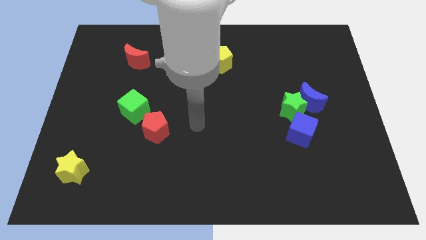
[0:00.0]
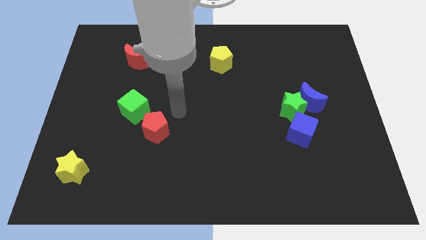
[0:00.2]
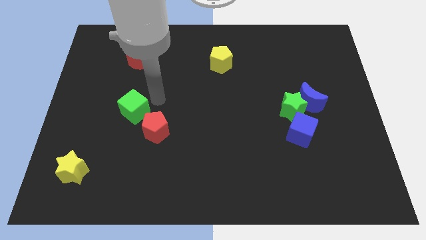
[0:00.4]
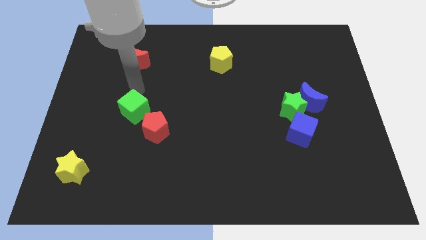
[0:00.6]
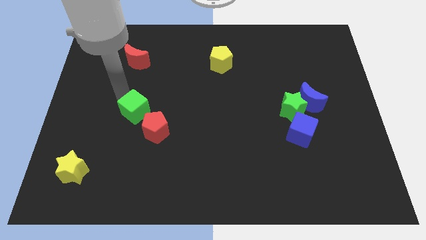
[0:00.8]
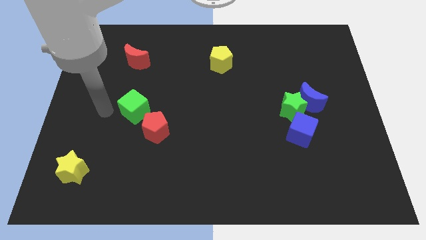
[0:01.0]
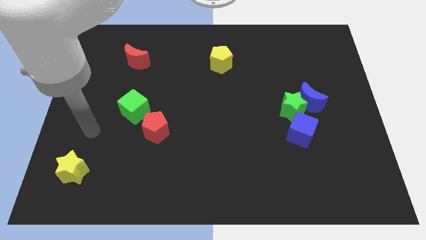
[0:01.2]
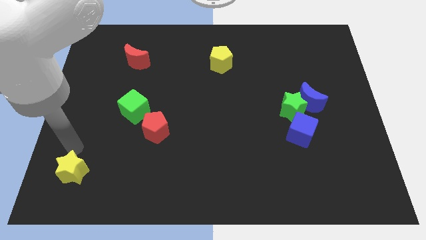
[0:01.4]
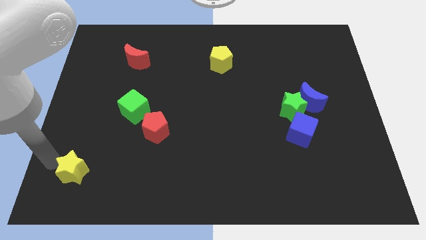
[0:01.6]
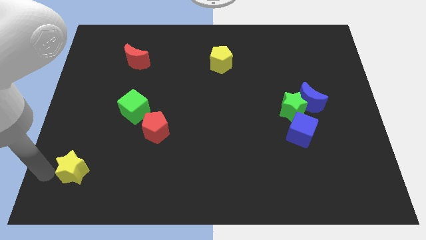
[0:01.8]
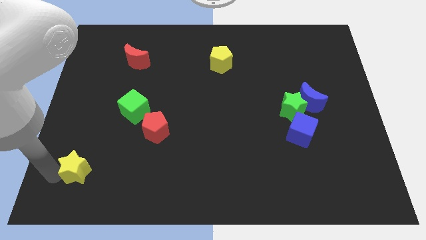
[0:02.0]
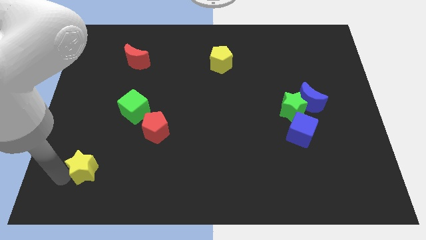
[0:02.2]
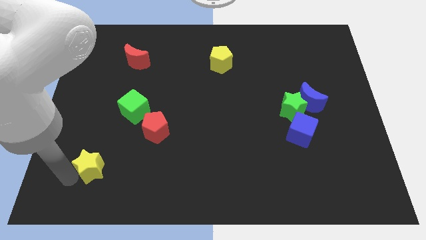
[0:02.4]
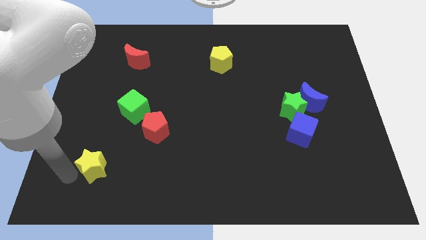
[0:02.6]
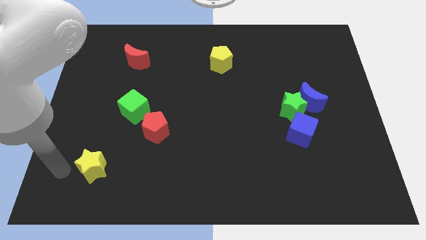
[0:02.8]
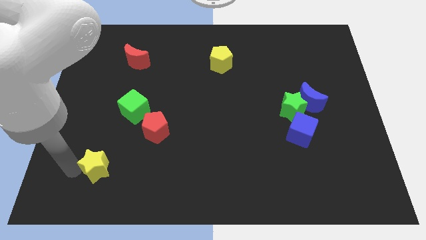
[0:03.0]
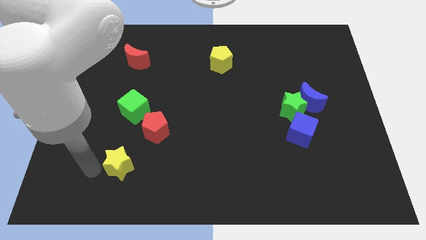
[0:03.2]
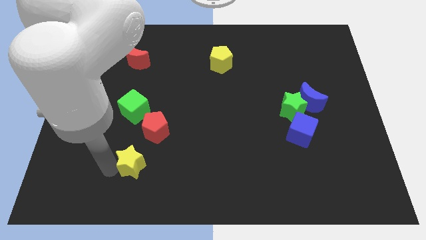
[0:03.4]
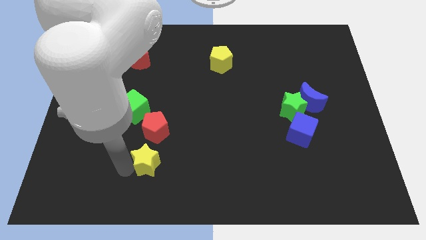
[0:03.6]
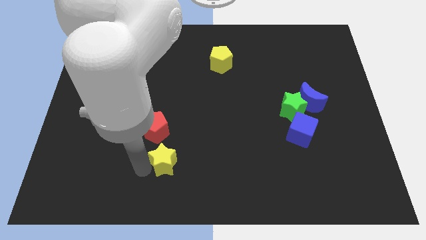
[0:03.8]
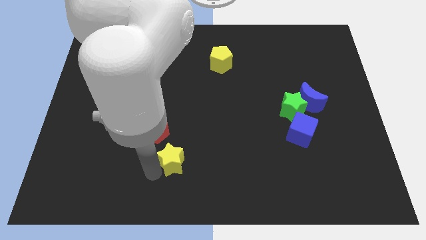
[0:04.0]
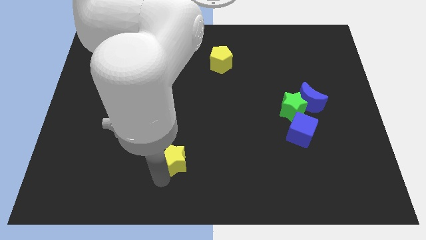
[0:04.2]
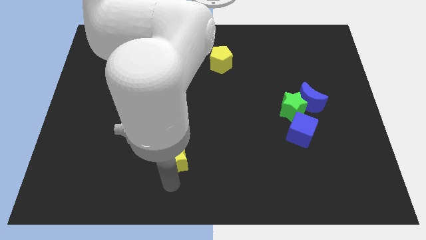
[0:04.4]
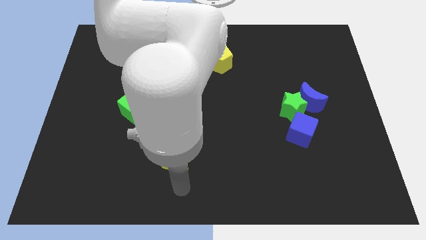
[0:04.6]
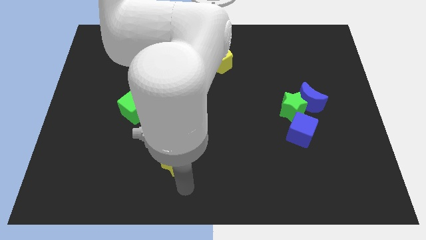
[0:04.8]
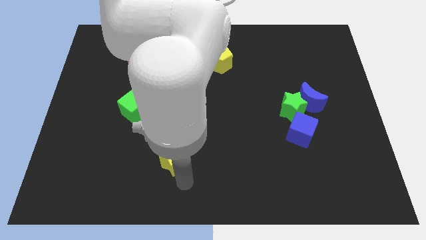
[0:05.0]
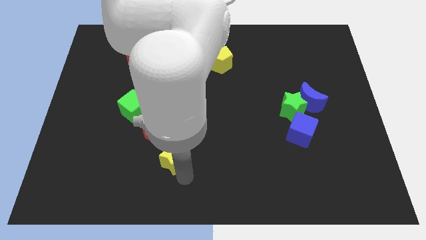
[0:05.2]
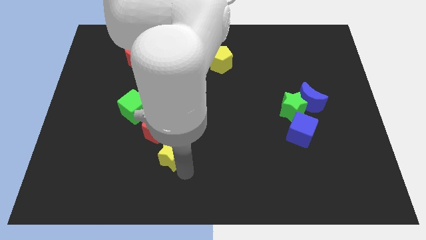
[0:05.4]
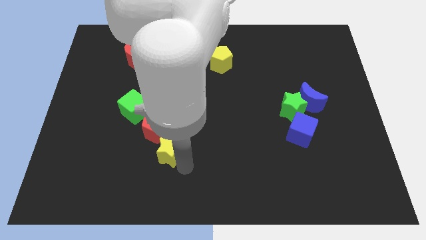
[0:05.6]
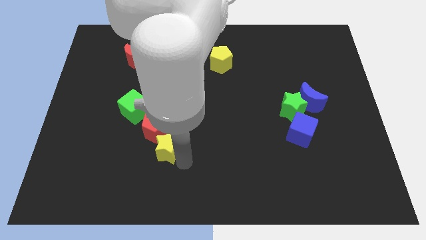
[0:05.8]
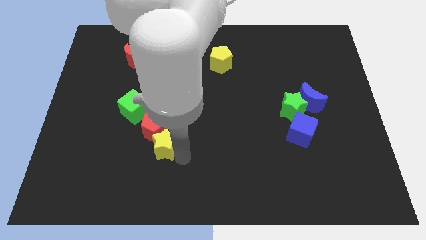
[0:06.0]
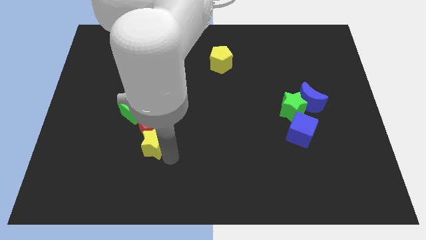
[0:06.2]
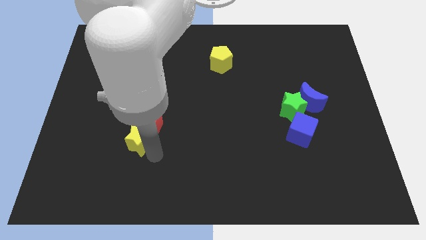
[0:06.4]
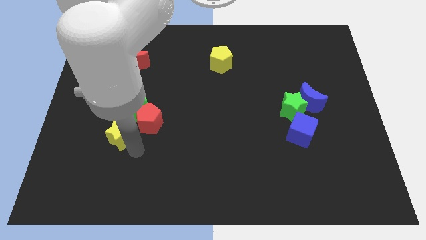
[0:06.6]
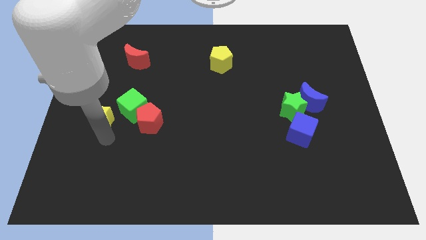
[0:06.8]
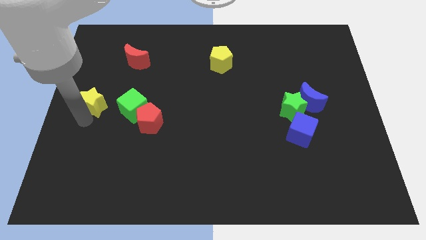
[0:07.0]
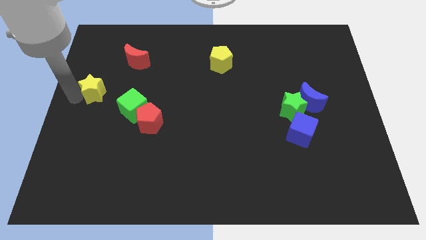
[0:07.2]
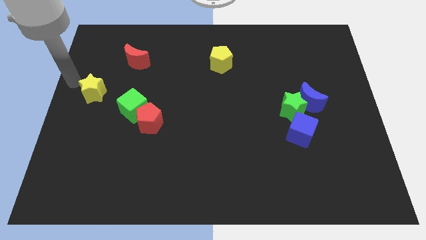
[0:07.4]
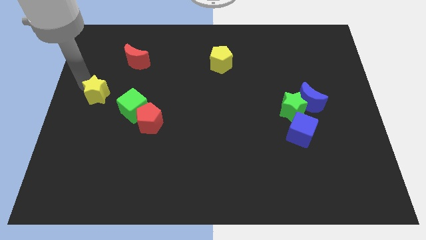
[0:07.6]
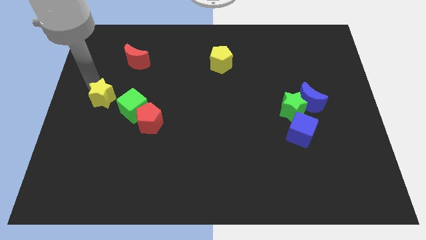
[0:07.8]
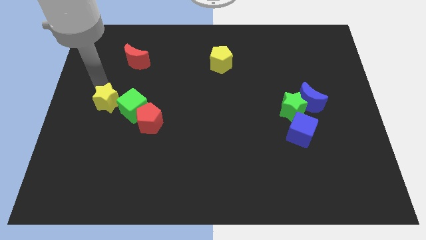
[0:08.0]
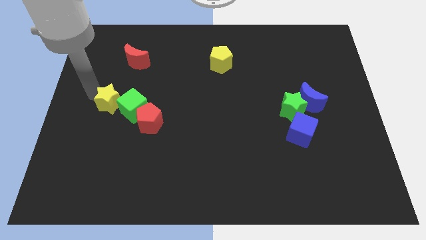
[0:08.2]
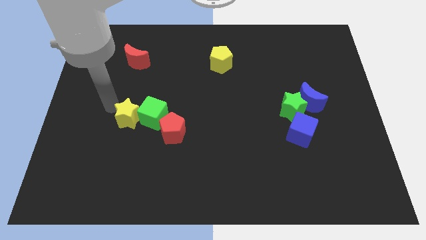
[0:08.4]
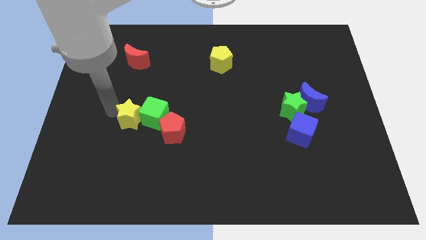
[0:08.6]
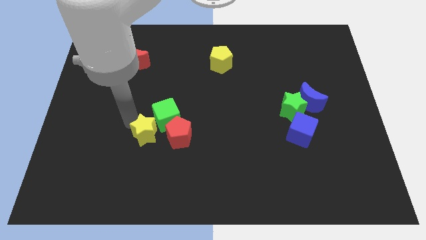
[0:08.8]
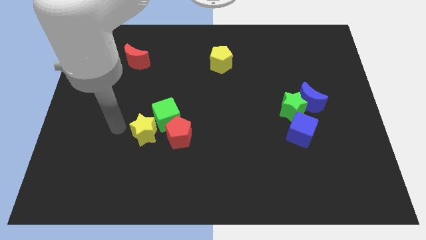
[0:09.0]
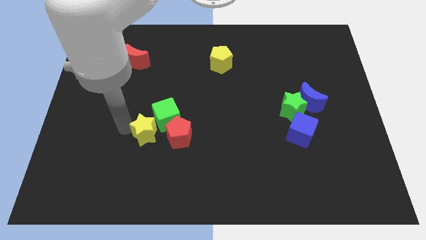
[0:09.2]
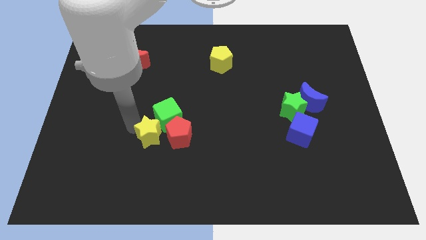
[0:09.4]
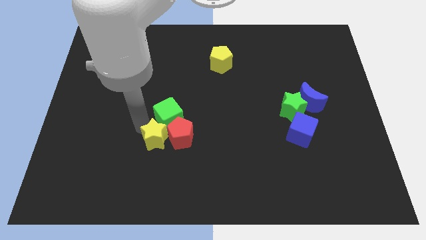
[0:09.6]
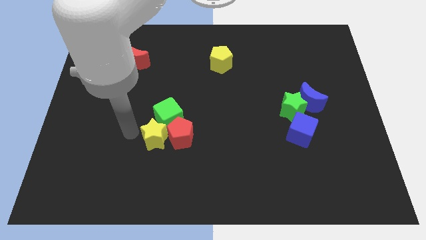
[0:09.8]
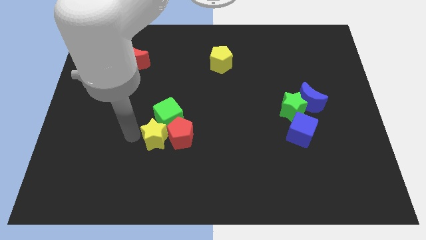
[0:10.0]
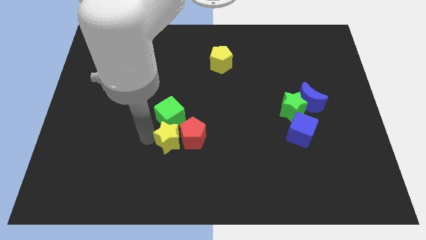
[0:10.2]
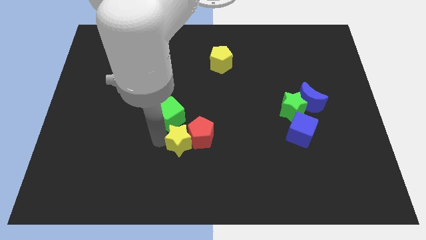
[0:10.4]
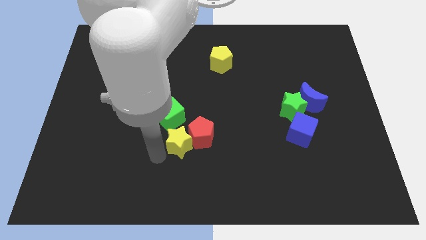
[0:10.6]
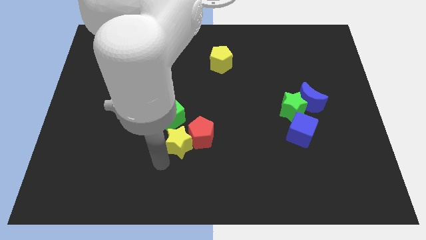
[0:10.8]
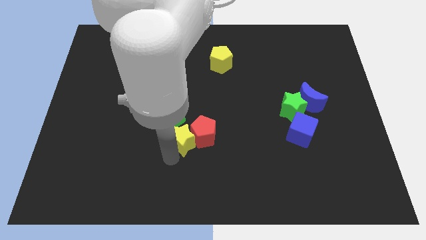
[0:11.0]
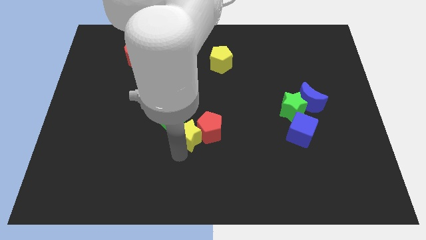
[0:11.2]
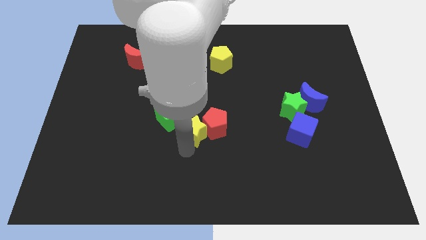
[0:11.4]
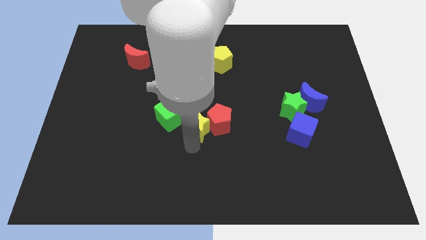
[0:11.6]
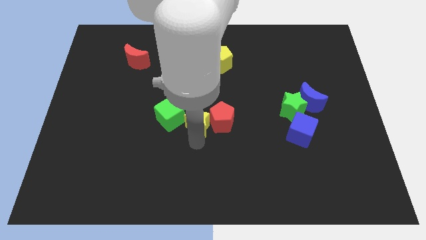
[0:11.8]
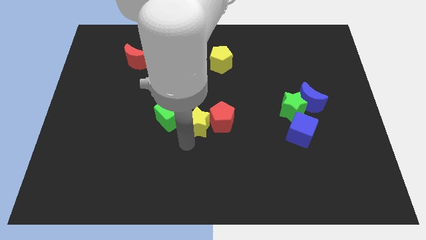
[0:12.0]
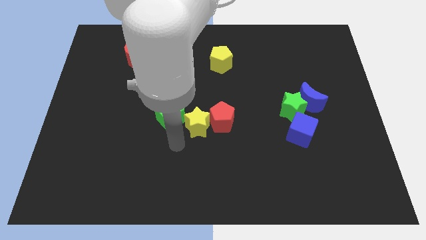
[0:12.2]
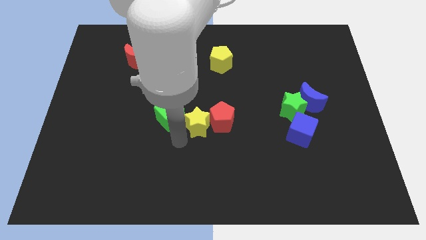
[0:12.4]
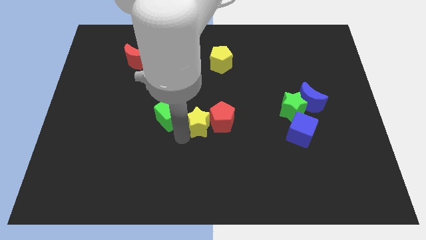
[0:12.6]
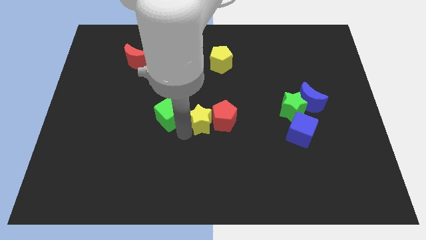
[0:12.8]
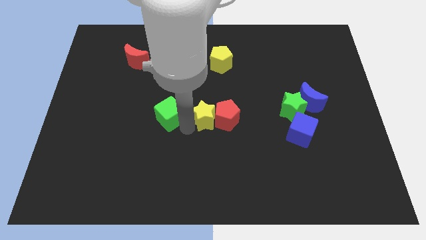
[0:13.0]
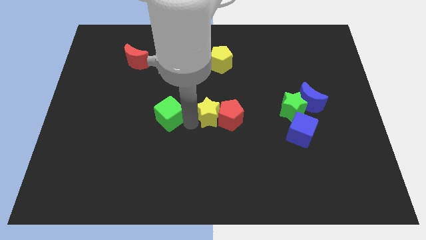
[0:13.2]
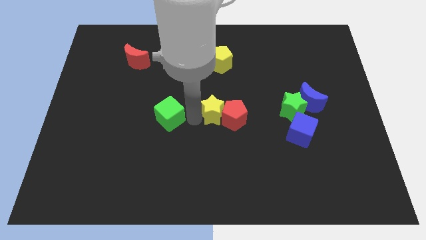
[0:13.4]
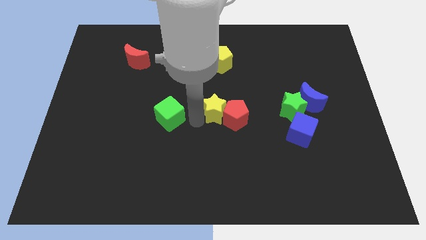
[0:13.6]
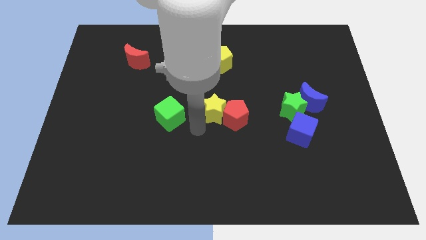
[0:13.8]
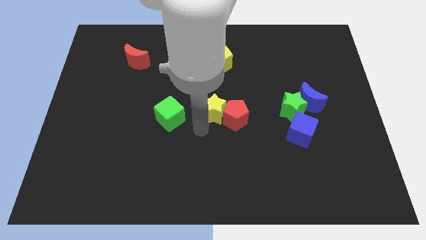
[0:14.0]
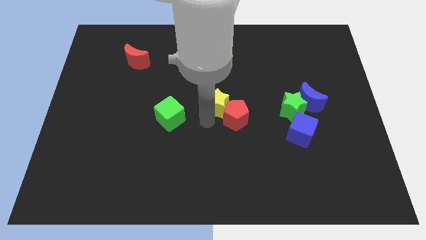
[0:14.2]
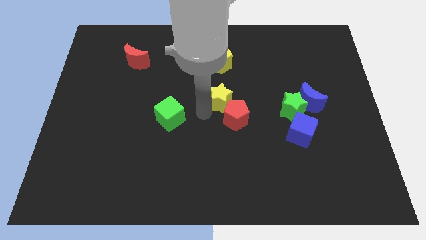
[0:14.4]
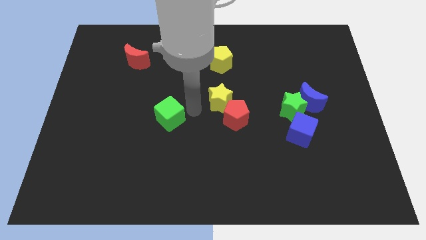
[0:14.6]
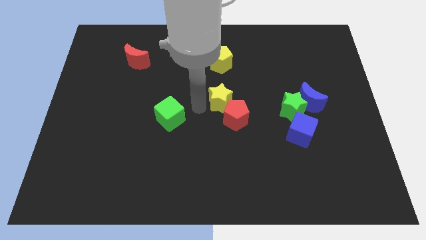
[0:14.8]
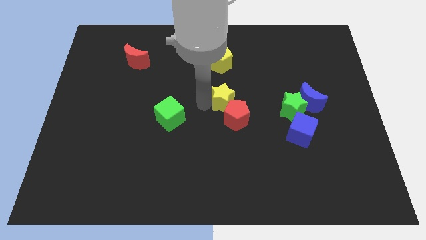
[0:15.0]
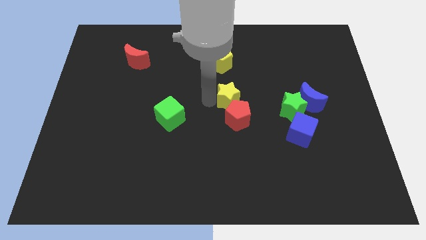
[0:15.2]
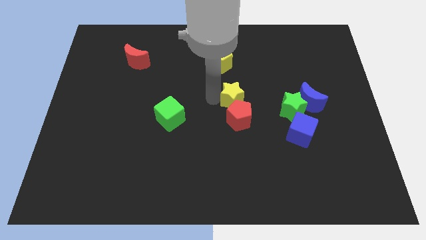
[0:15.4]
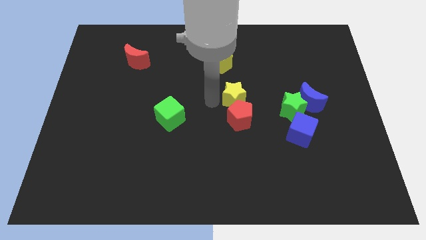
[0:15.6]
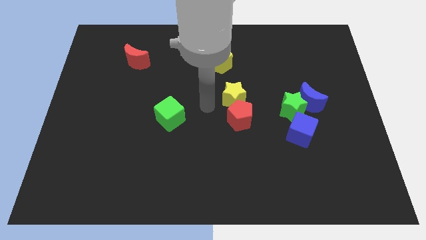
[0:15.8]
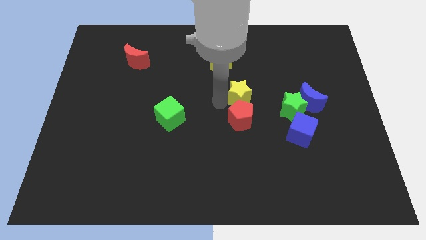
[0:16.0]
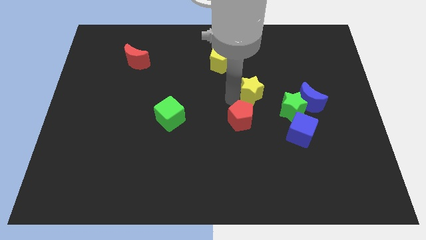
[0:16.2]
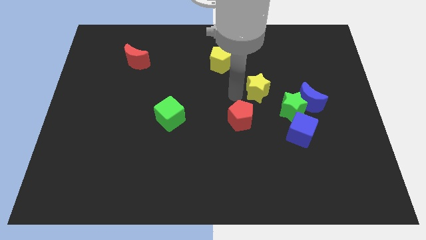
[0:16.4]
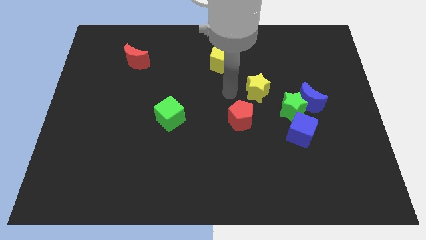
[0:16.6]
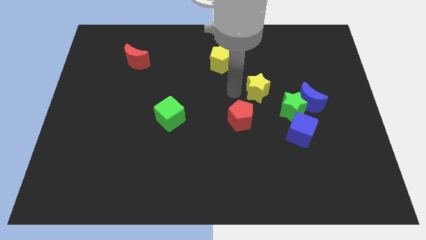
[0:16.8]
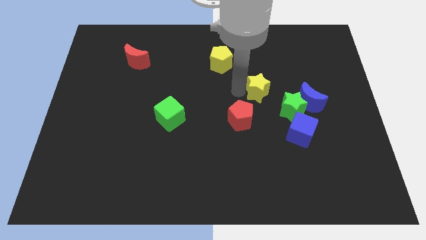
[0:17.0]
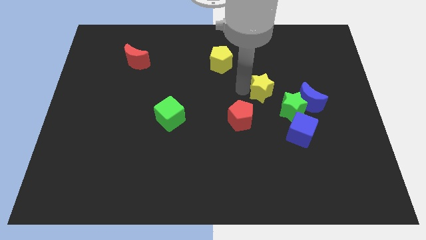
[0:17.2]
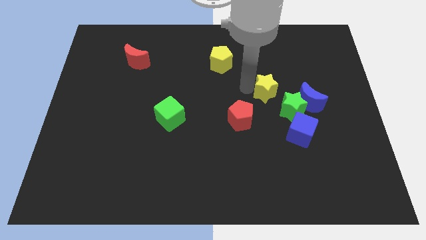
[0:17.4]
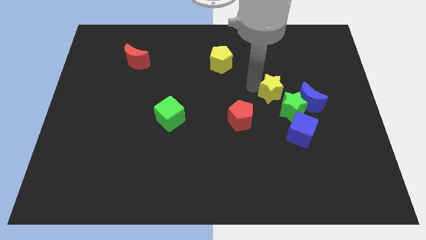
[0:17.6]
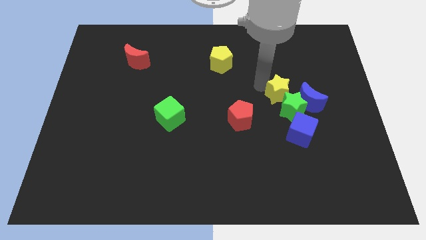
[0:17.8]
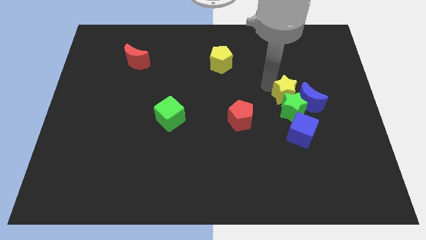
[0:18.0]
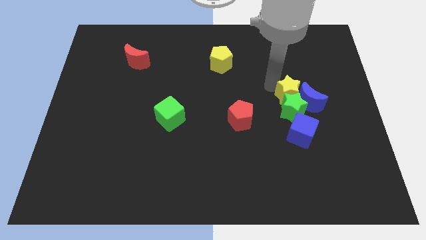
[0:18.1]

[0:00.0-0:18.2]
slide the yellow star towards the blue moon
